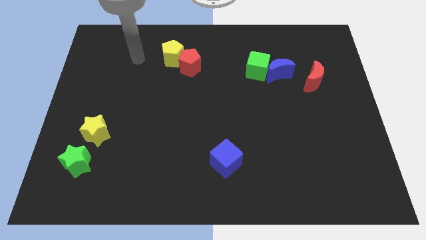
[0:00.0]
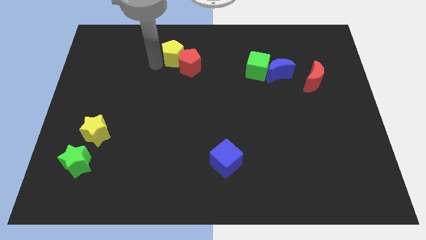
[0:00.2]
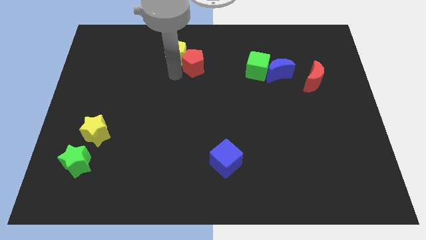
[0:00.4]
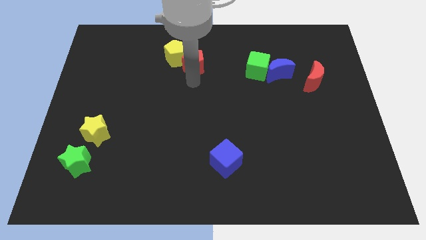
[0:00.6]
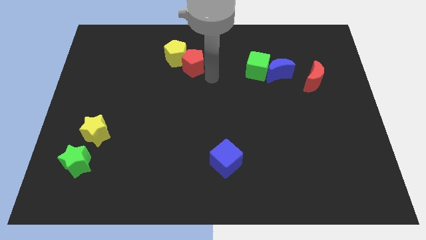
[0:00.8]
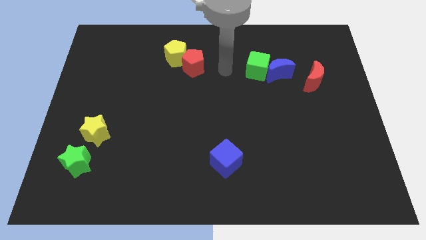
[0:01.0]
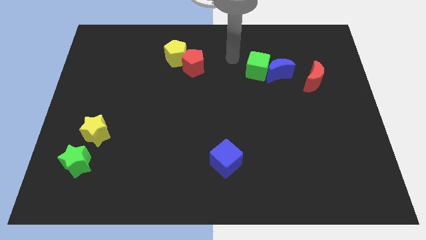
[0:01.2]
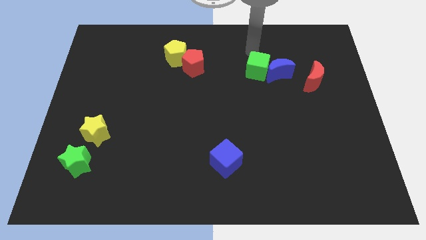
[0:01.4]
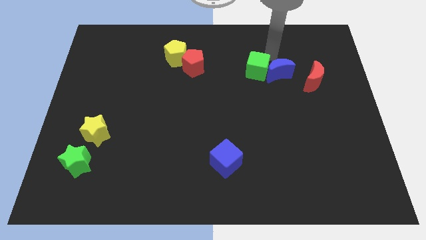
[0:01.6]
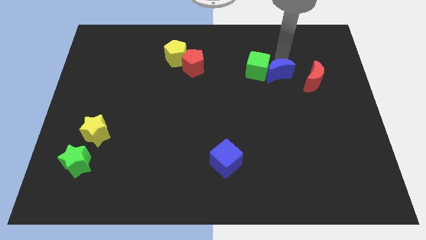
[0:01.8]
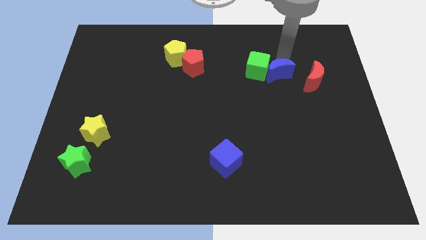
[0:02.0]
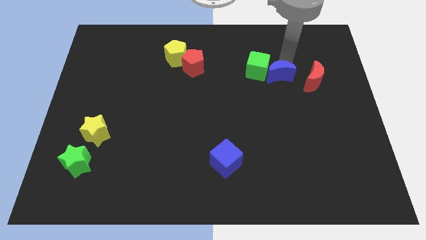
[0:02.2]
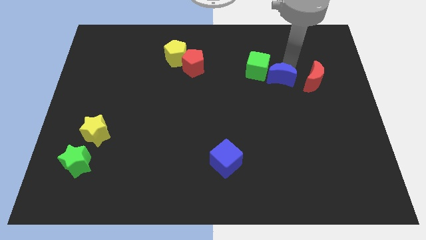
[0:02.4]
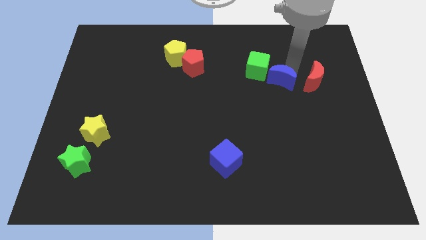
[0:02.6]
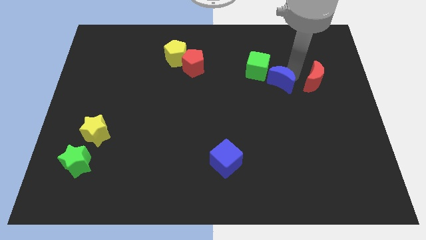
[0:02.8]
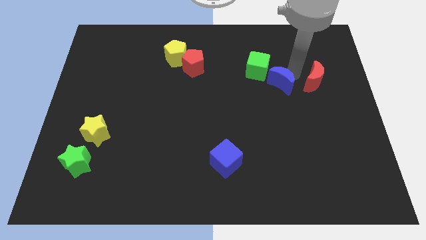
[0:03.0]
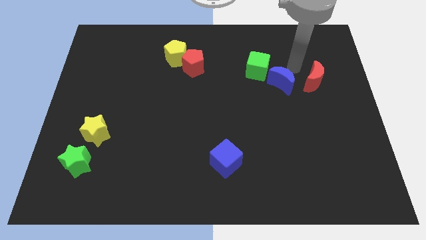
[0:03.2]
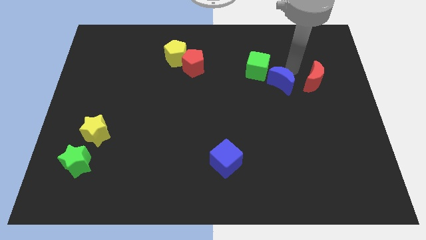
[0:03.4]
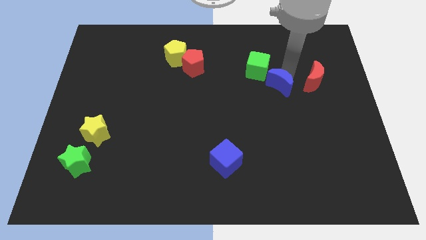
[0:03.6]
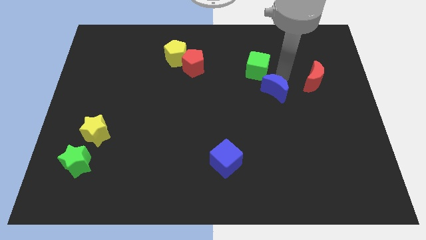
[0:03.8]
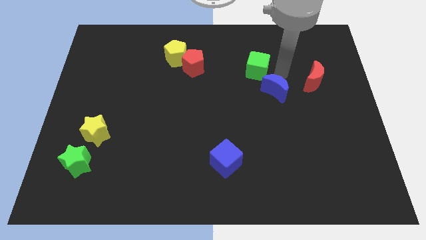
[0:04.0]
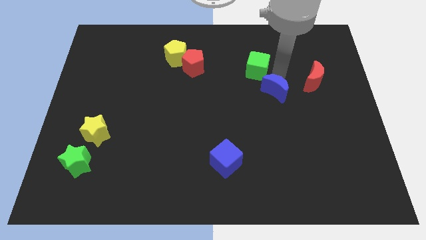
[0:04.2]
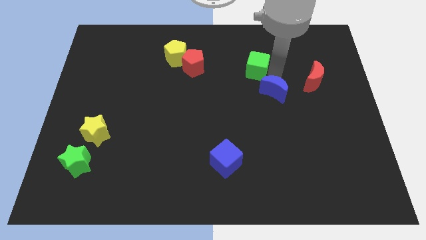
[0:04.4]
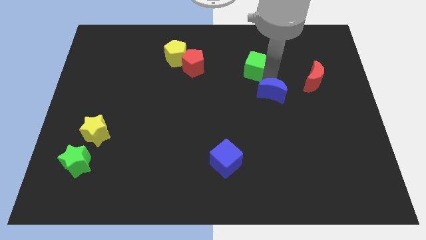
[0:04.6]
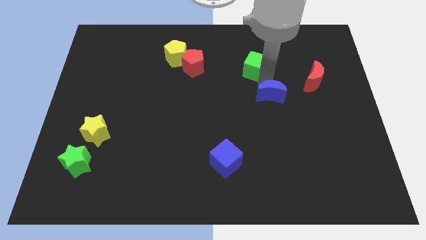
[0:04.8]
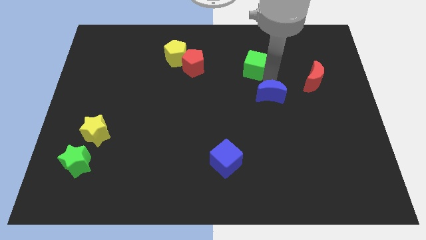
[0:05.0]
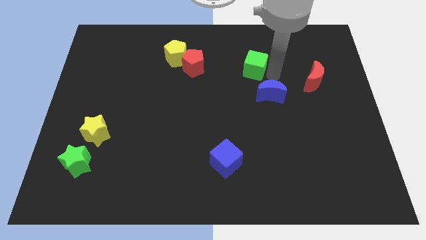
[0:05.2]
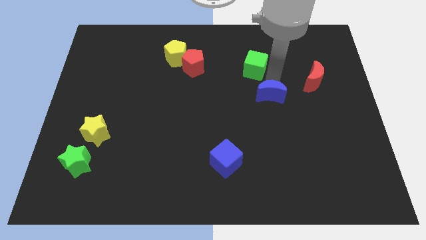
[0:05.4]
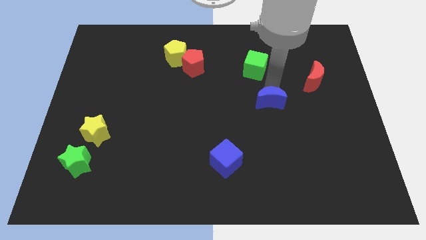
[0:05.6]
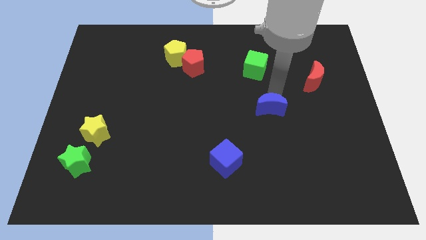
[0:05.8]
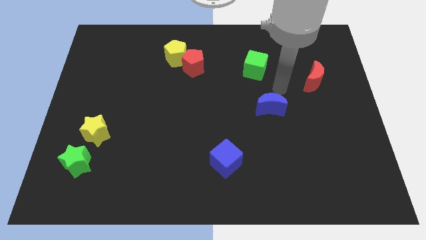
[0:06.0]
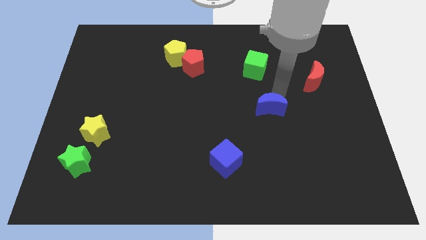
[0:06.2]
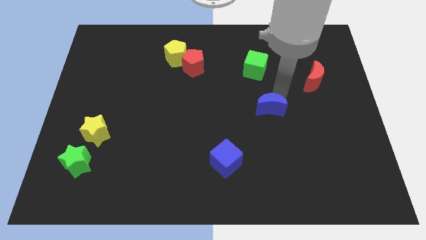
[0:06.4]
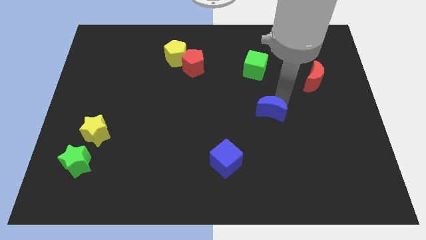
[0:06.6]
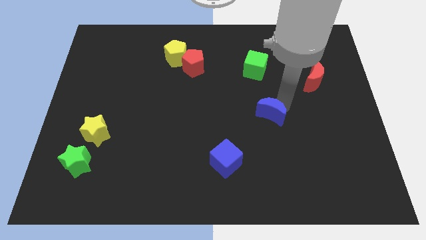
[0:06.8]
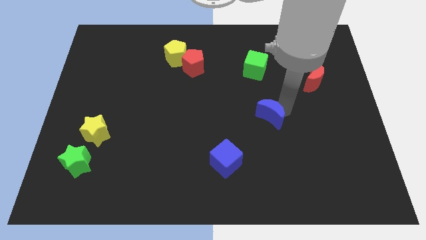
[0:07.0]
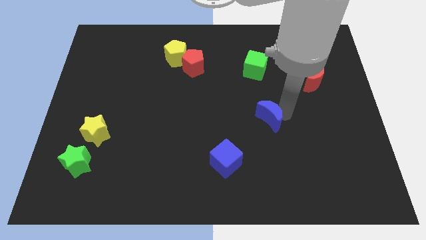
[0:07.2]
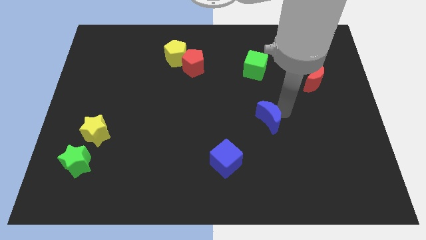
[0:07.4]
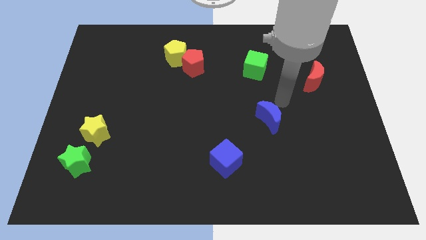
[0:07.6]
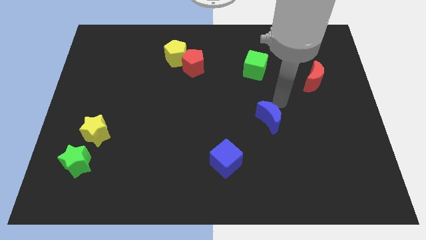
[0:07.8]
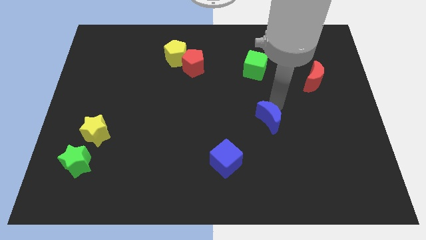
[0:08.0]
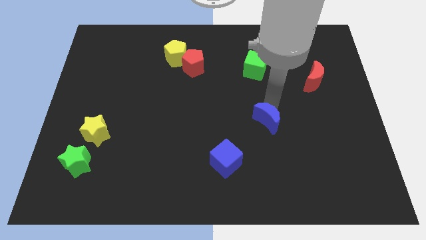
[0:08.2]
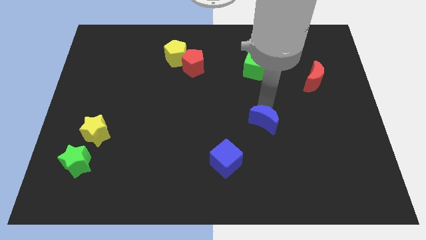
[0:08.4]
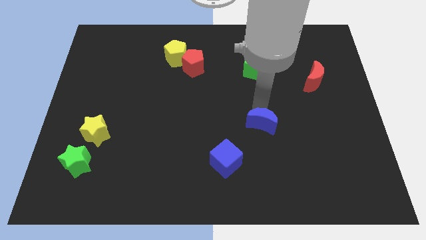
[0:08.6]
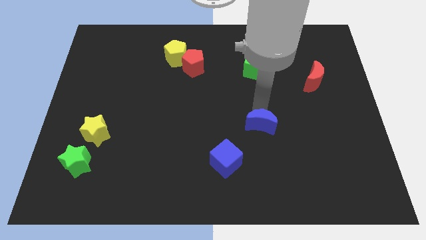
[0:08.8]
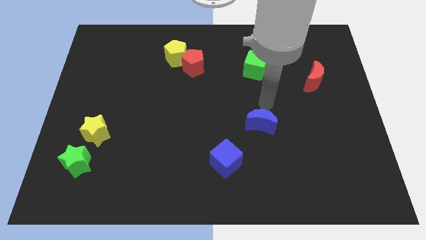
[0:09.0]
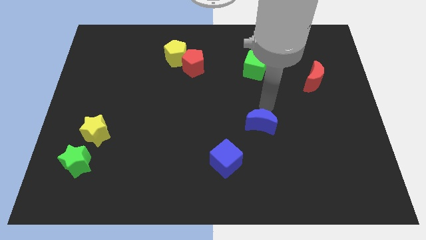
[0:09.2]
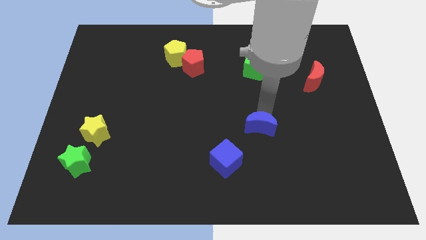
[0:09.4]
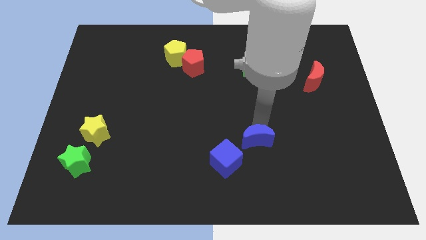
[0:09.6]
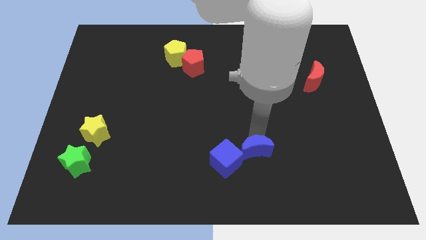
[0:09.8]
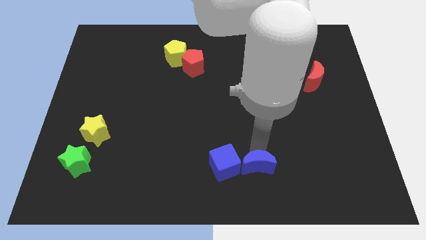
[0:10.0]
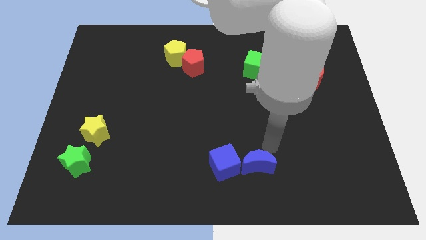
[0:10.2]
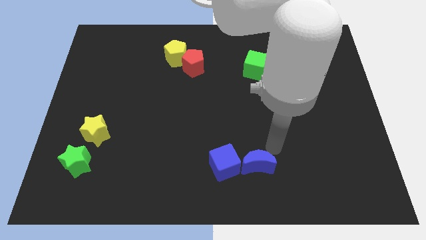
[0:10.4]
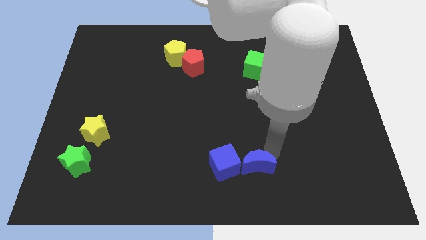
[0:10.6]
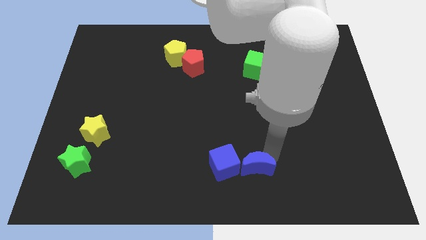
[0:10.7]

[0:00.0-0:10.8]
move the blue moon to the bottom side

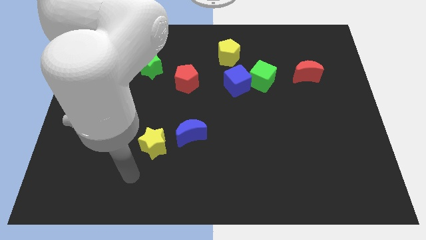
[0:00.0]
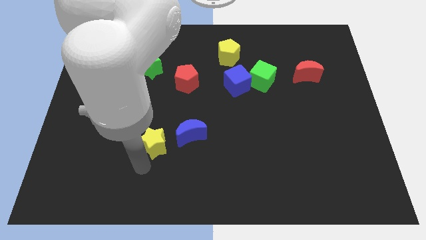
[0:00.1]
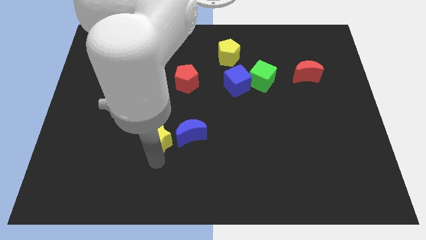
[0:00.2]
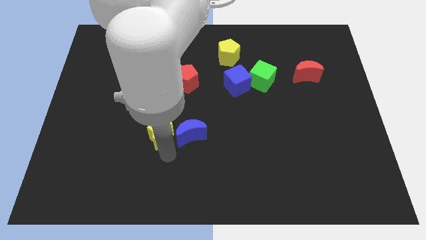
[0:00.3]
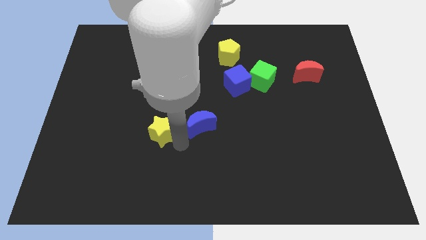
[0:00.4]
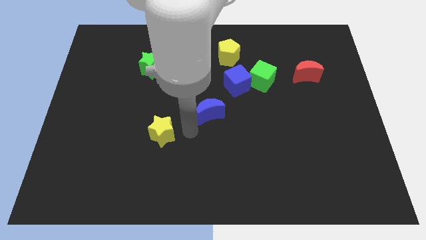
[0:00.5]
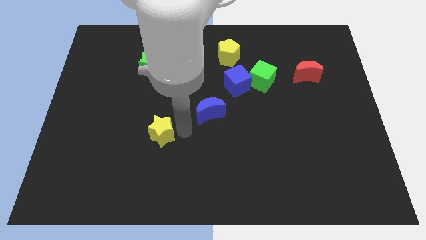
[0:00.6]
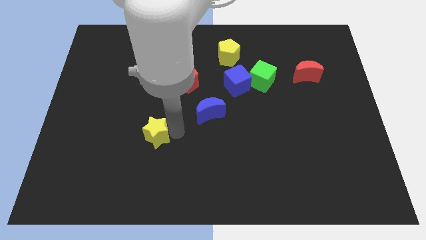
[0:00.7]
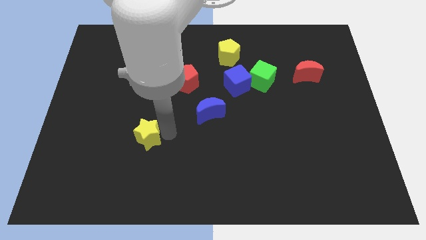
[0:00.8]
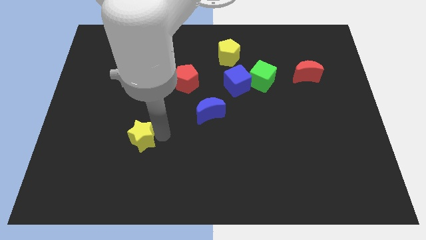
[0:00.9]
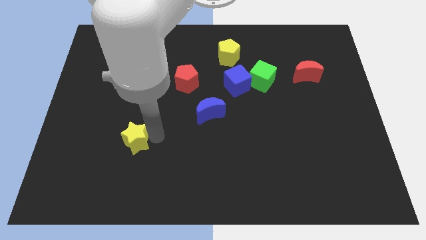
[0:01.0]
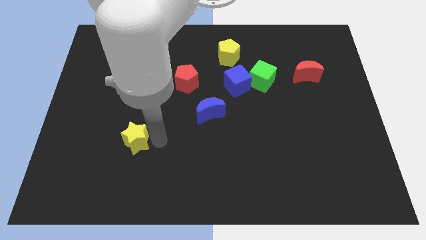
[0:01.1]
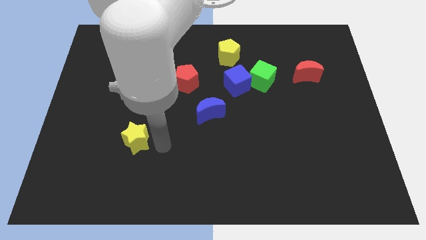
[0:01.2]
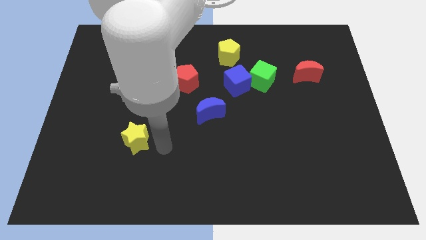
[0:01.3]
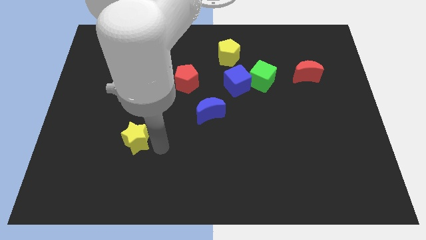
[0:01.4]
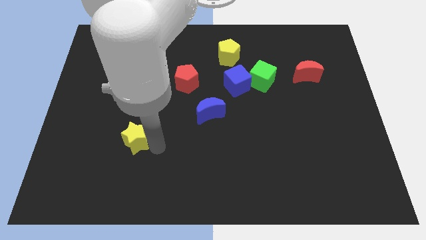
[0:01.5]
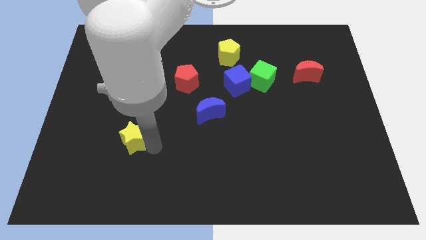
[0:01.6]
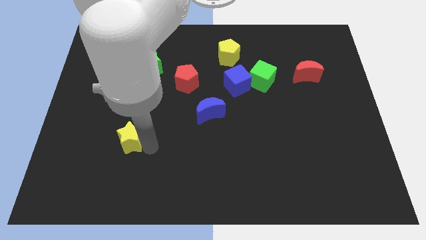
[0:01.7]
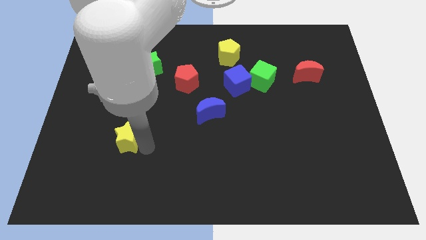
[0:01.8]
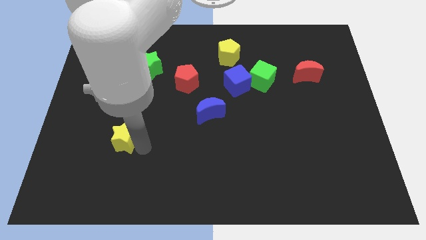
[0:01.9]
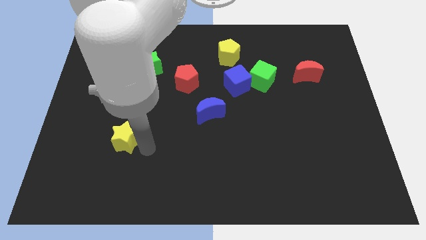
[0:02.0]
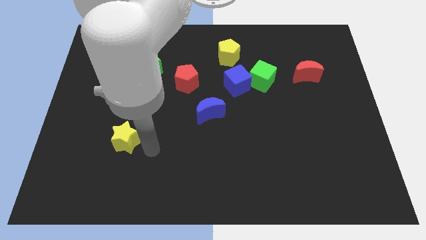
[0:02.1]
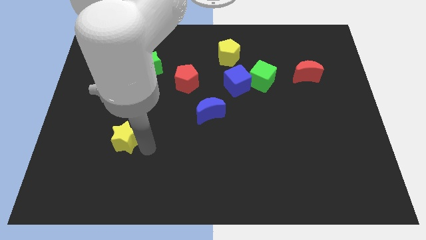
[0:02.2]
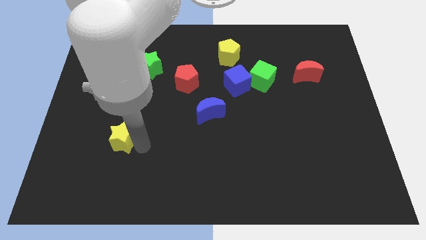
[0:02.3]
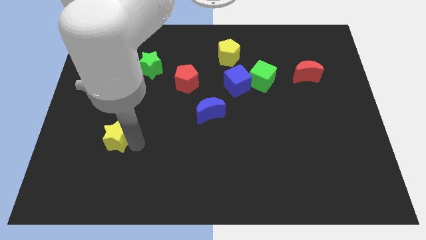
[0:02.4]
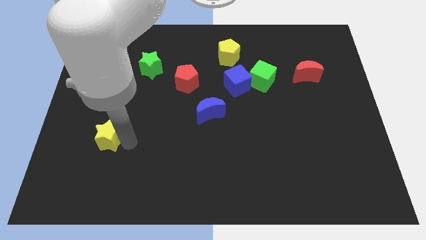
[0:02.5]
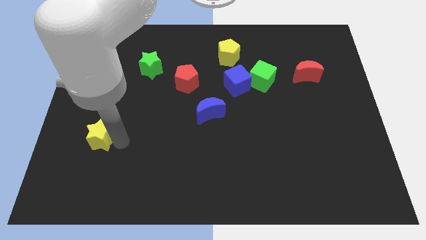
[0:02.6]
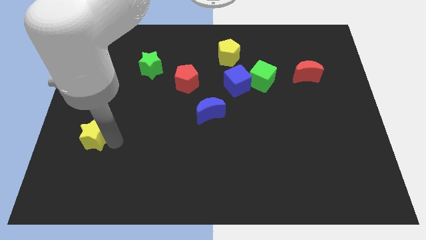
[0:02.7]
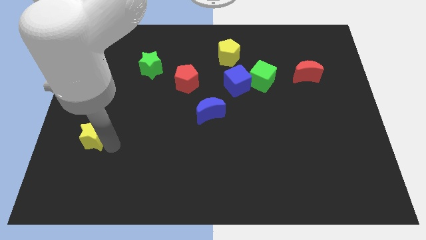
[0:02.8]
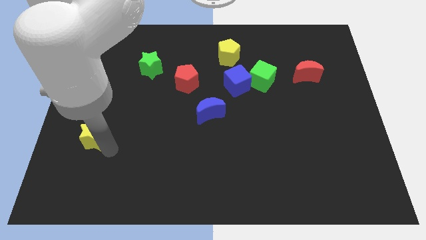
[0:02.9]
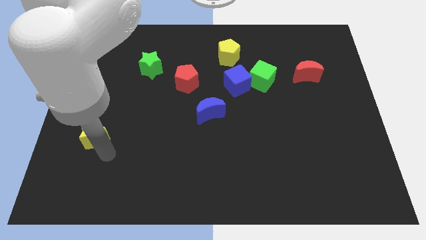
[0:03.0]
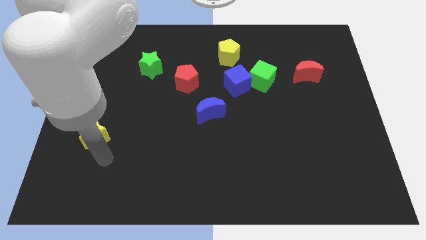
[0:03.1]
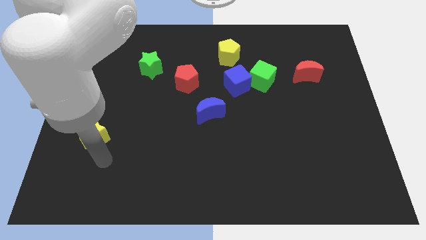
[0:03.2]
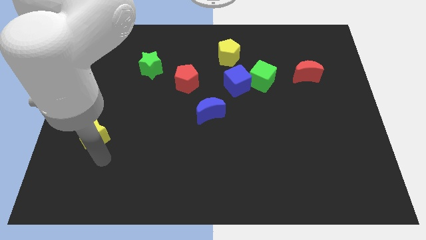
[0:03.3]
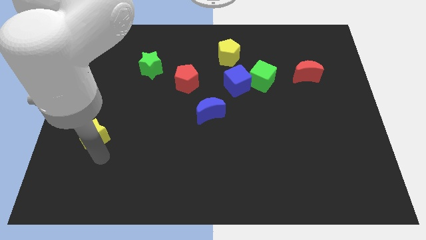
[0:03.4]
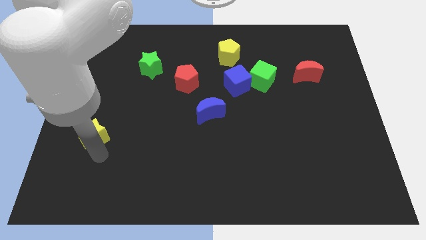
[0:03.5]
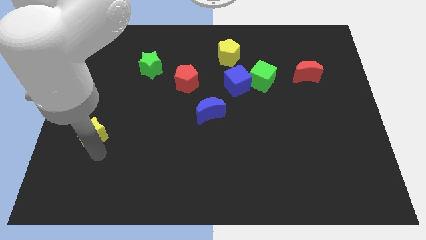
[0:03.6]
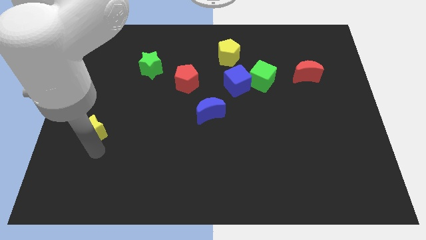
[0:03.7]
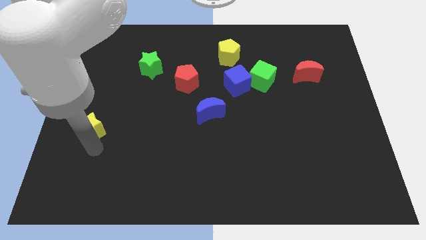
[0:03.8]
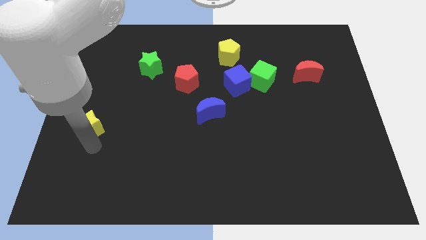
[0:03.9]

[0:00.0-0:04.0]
slide the yellow star to the center left
